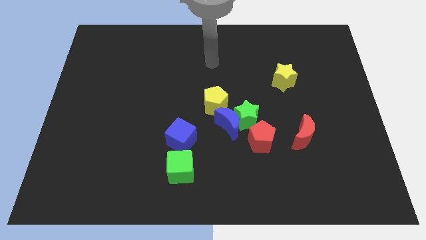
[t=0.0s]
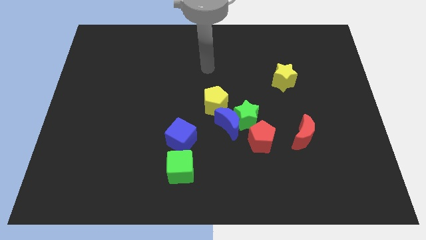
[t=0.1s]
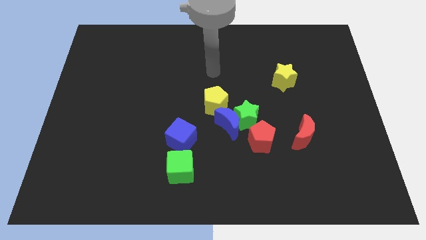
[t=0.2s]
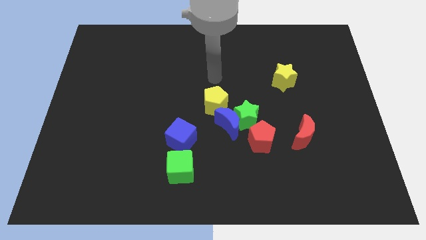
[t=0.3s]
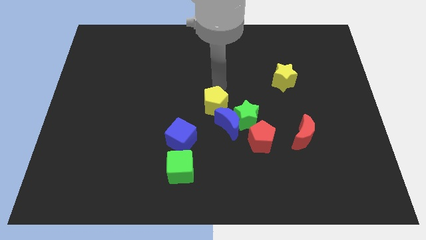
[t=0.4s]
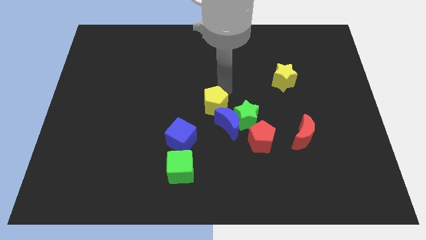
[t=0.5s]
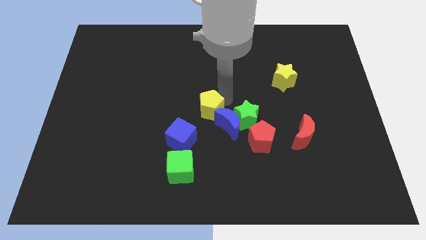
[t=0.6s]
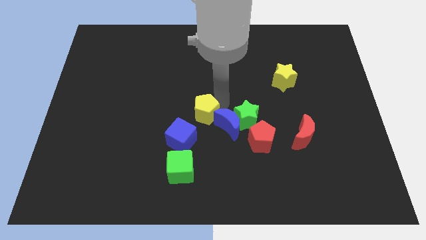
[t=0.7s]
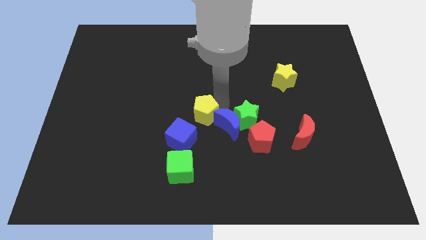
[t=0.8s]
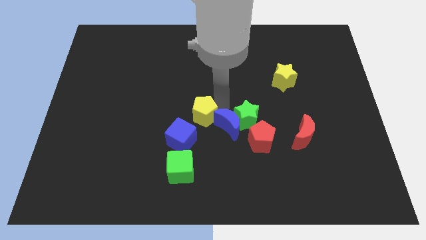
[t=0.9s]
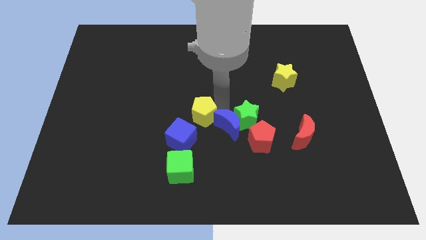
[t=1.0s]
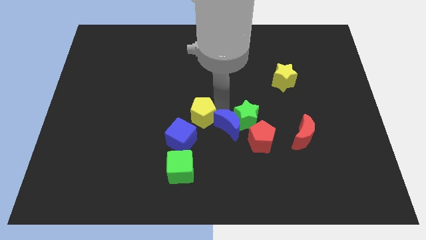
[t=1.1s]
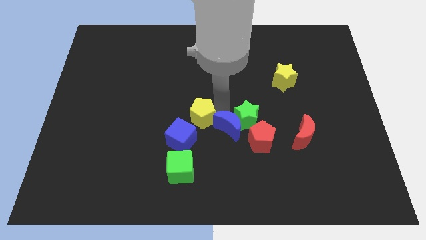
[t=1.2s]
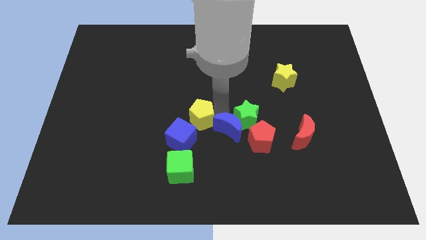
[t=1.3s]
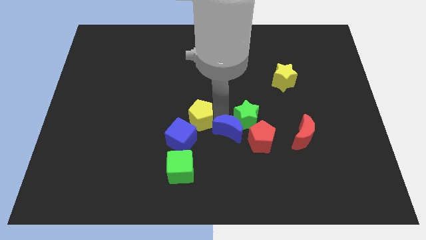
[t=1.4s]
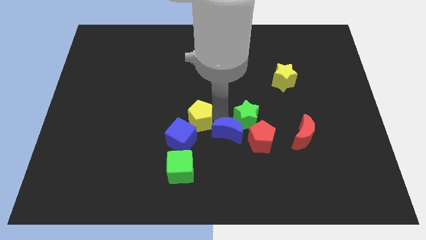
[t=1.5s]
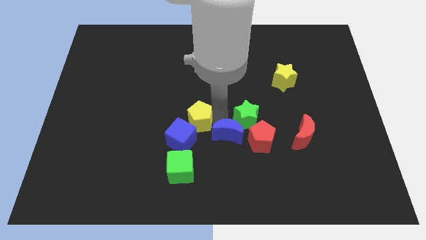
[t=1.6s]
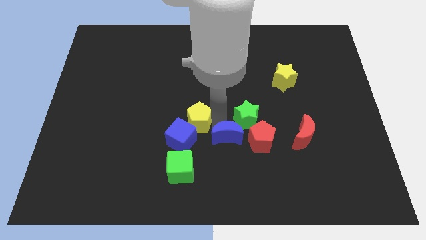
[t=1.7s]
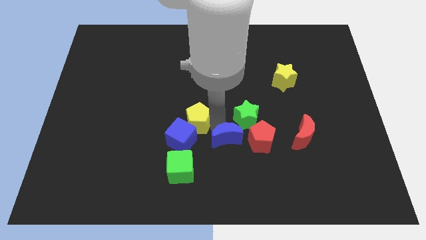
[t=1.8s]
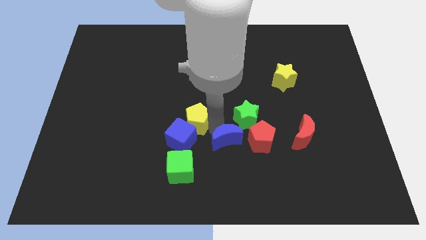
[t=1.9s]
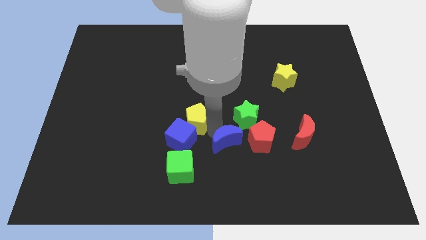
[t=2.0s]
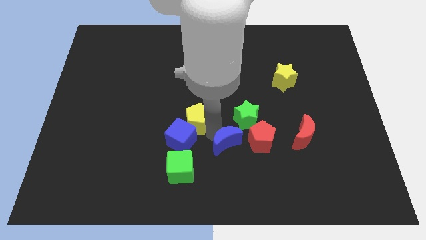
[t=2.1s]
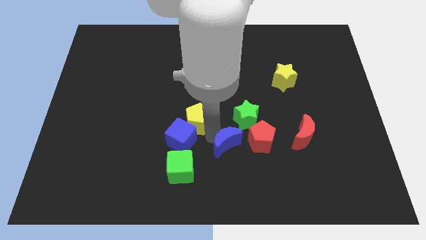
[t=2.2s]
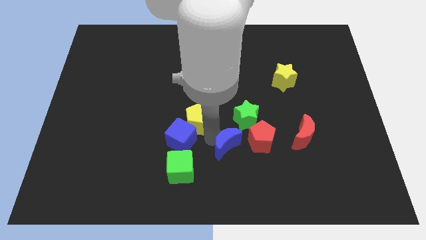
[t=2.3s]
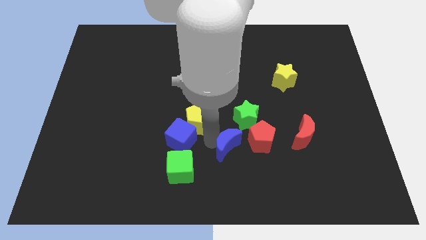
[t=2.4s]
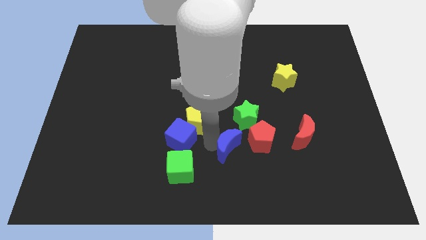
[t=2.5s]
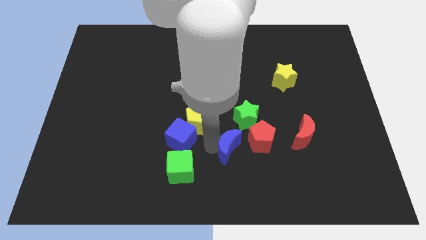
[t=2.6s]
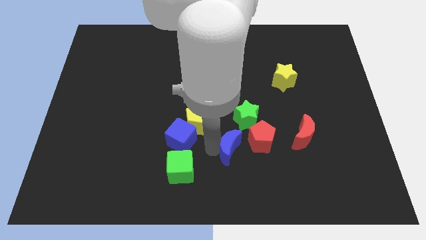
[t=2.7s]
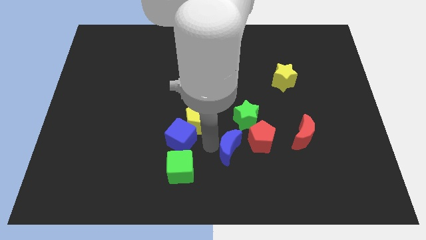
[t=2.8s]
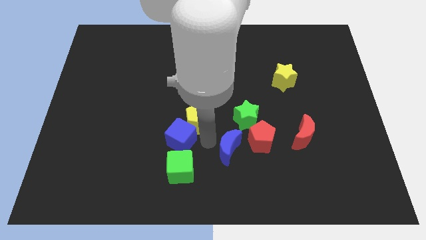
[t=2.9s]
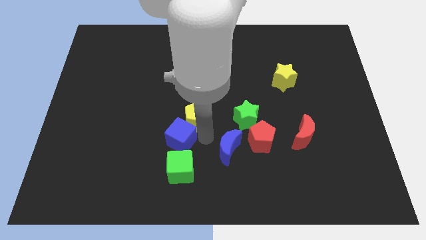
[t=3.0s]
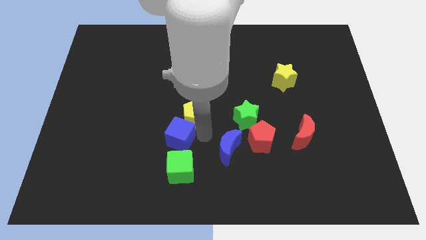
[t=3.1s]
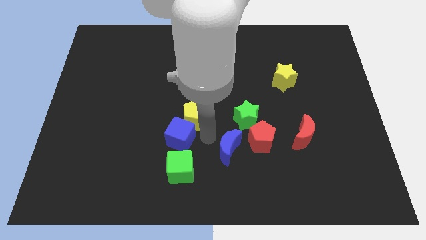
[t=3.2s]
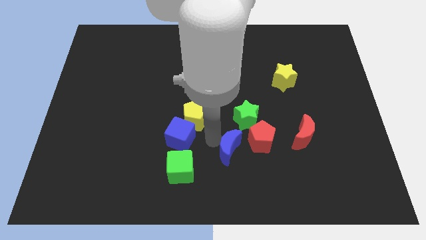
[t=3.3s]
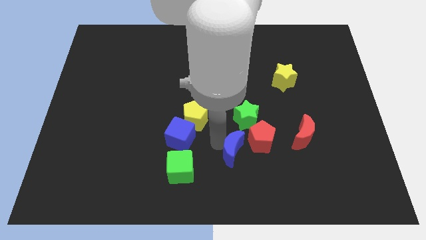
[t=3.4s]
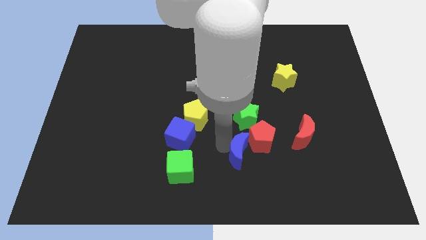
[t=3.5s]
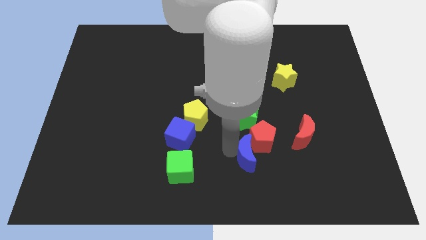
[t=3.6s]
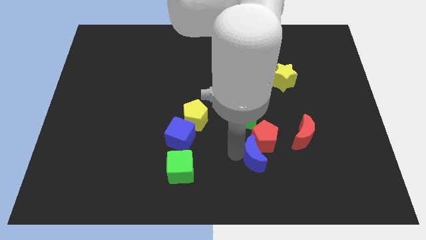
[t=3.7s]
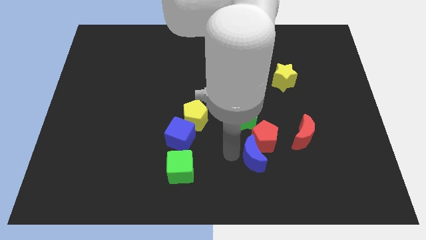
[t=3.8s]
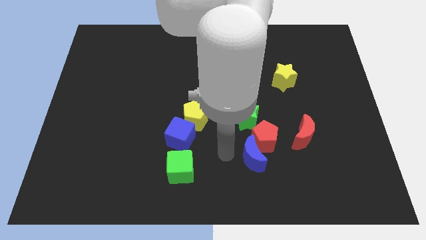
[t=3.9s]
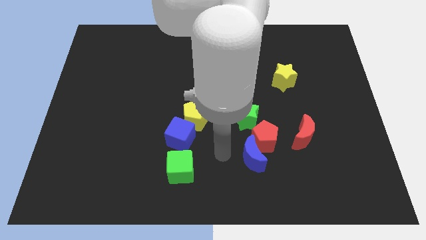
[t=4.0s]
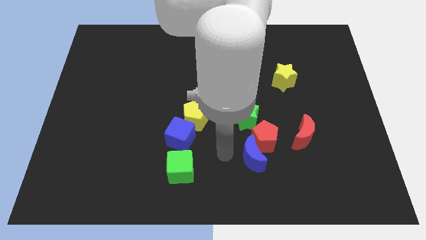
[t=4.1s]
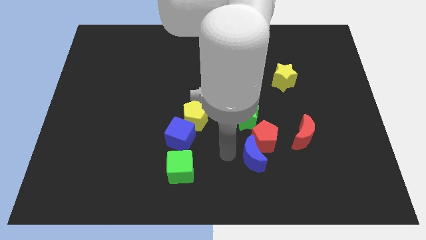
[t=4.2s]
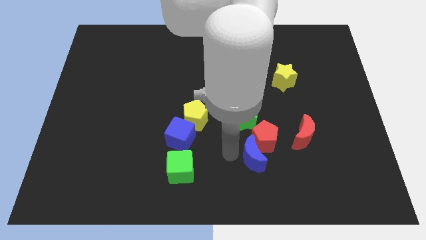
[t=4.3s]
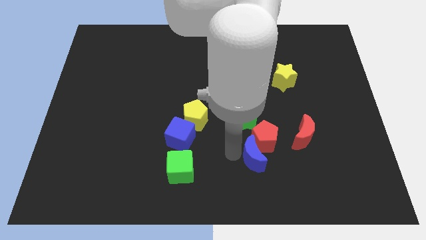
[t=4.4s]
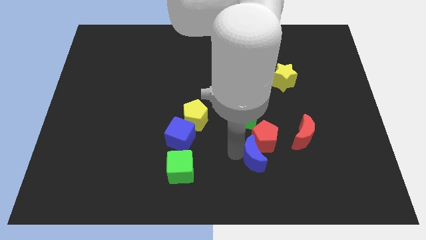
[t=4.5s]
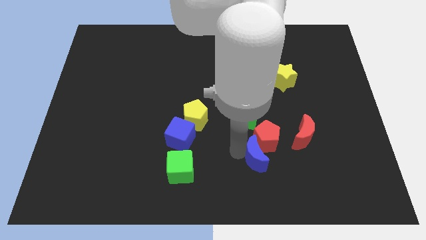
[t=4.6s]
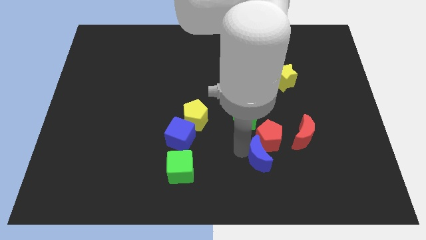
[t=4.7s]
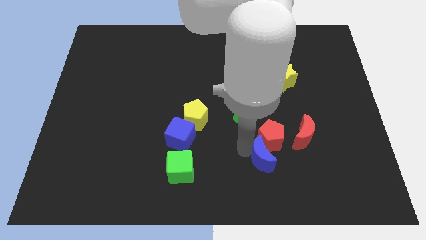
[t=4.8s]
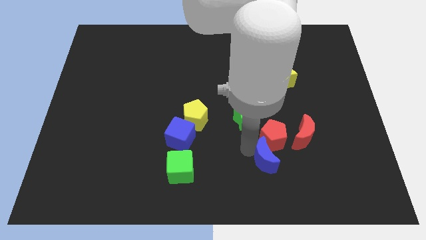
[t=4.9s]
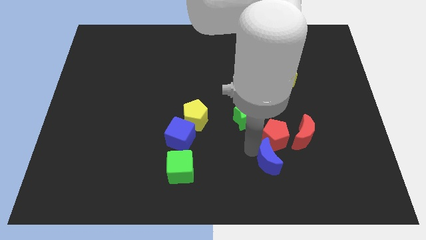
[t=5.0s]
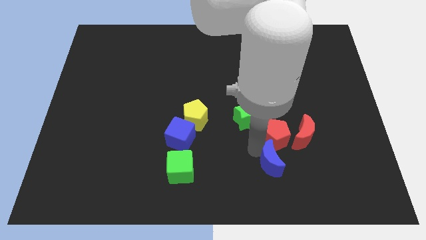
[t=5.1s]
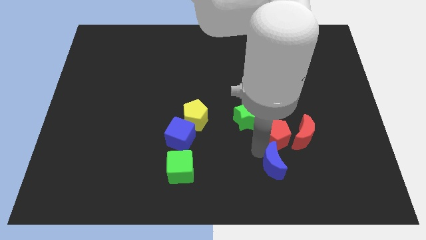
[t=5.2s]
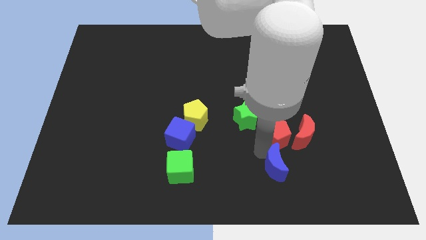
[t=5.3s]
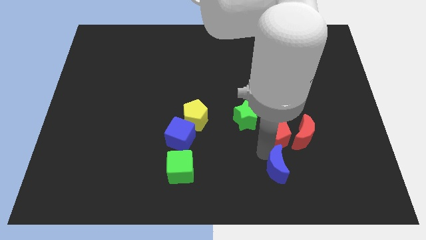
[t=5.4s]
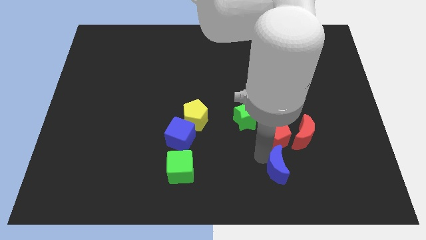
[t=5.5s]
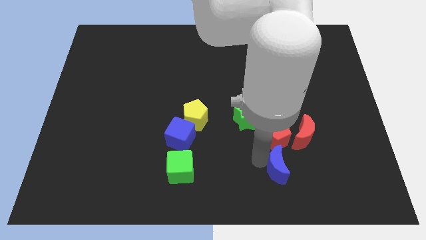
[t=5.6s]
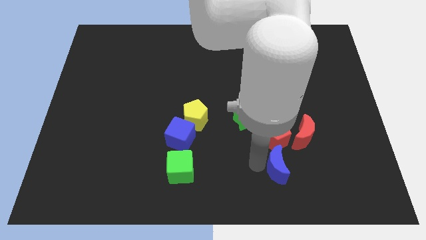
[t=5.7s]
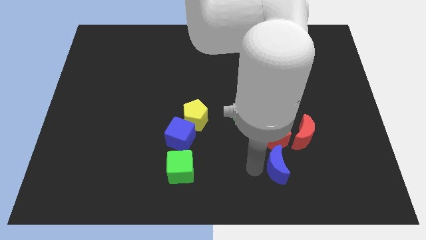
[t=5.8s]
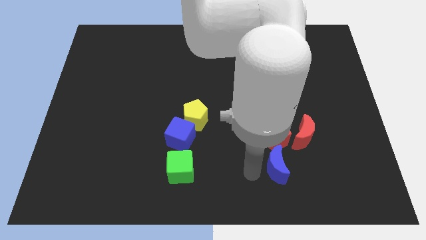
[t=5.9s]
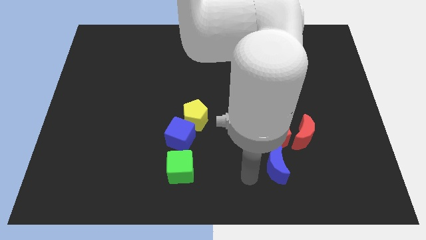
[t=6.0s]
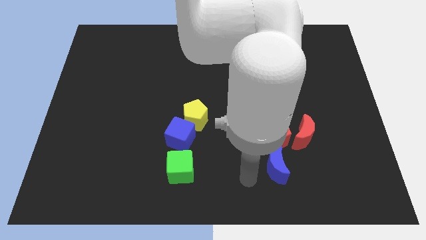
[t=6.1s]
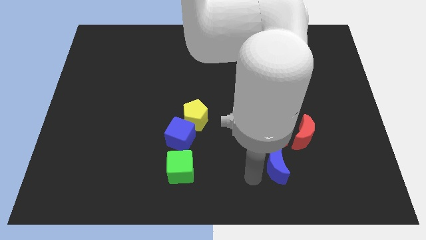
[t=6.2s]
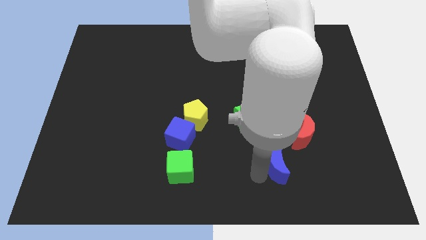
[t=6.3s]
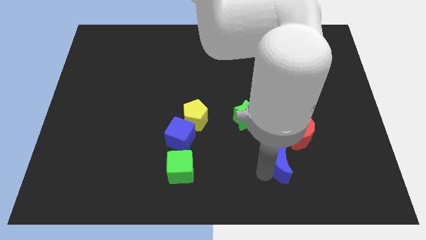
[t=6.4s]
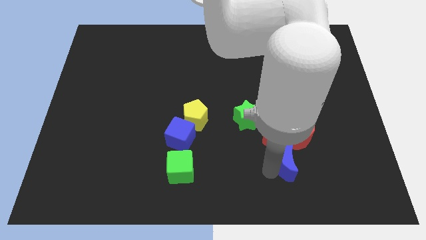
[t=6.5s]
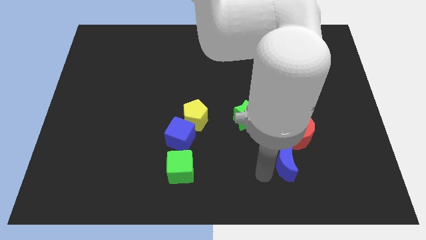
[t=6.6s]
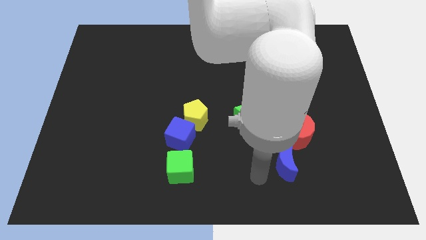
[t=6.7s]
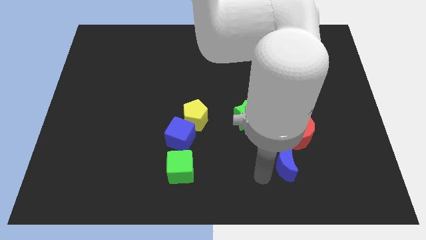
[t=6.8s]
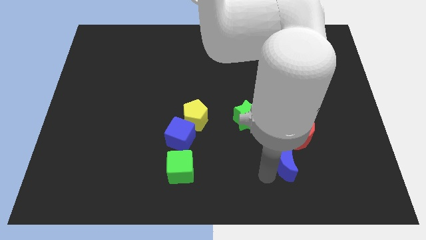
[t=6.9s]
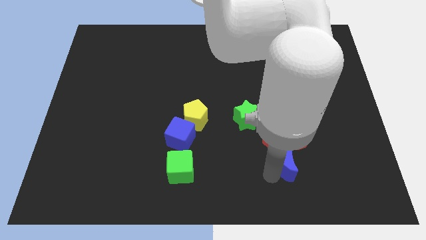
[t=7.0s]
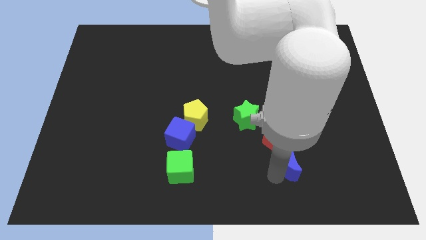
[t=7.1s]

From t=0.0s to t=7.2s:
push the blue moon to the right a little bit

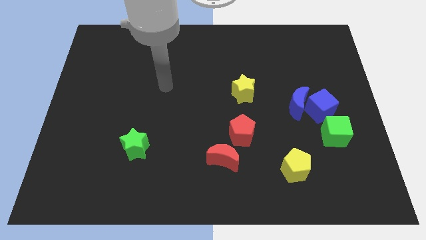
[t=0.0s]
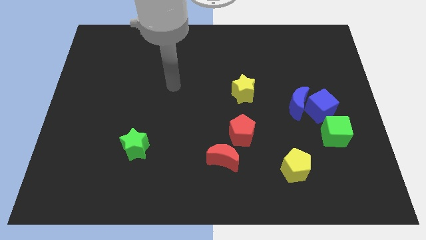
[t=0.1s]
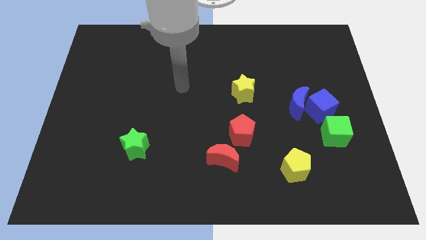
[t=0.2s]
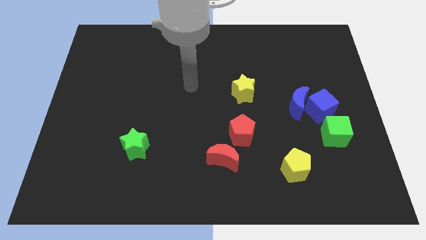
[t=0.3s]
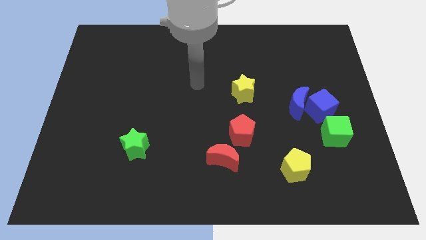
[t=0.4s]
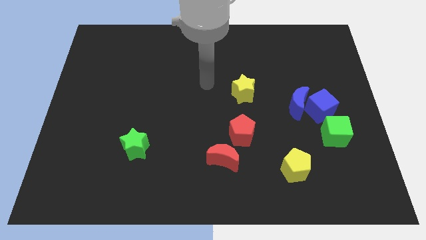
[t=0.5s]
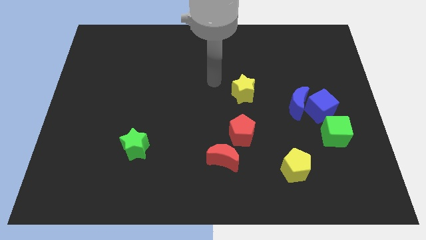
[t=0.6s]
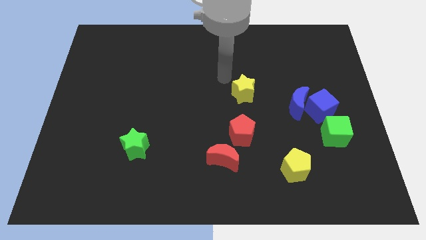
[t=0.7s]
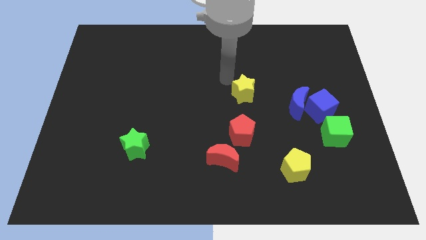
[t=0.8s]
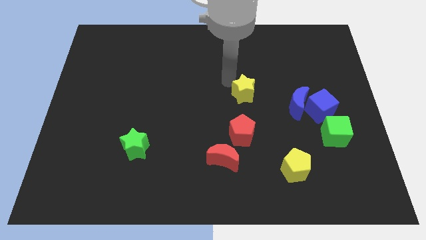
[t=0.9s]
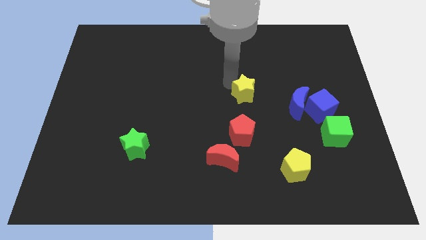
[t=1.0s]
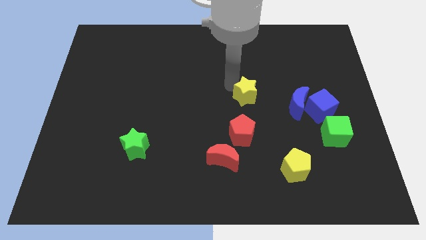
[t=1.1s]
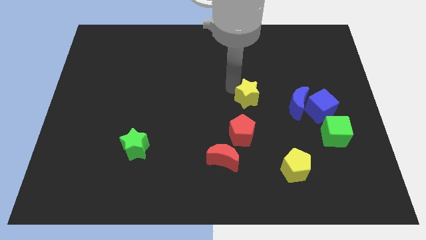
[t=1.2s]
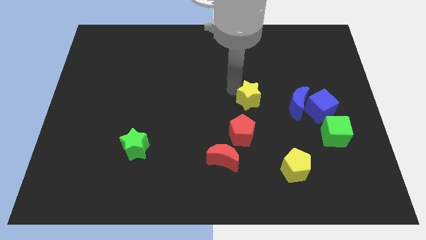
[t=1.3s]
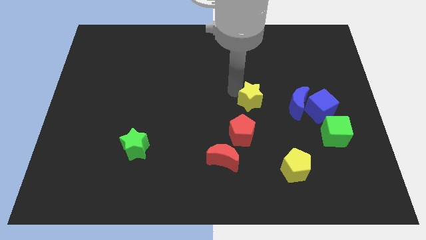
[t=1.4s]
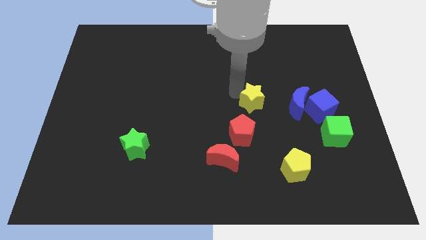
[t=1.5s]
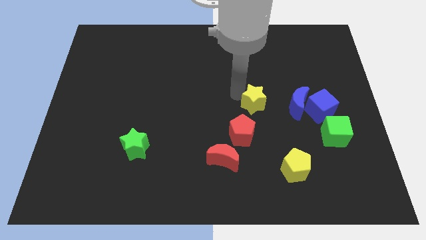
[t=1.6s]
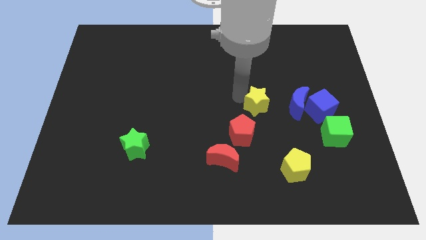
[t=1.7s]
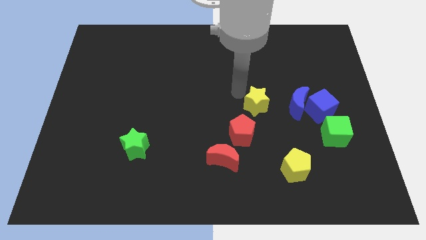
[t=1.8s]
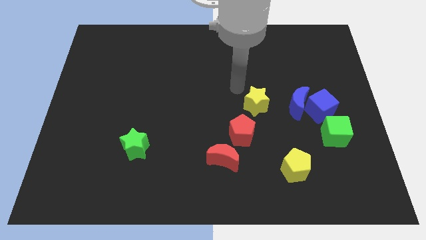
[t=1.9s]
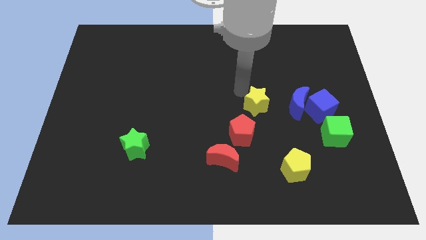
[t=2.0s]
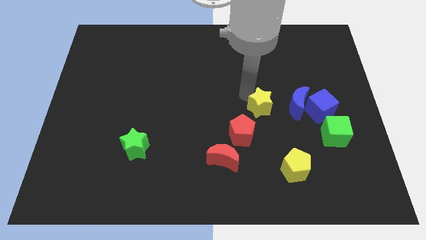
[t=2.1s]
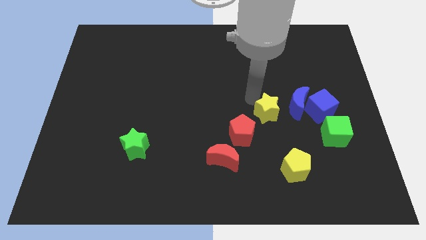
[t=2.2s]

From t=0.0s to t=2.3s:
slide the yellow star downwards and to the right diagonally a little bit
